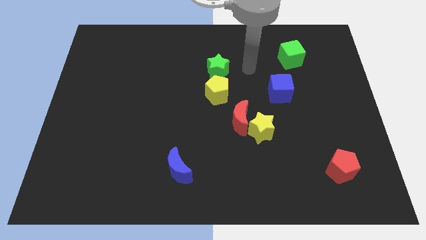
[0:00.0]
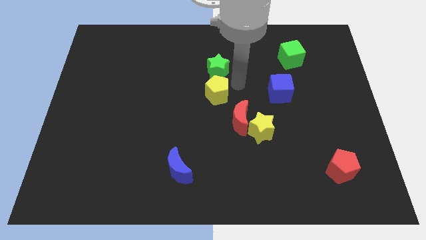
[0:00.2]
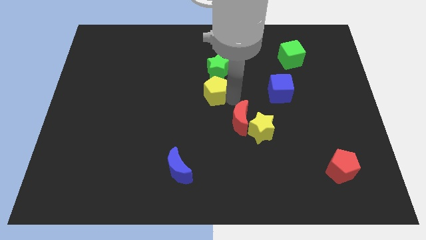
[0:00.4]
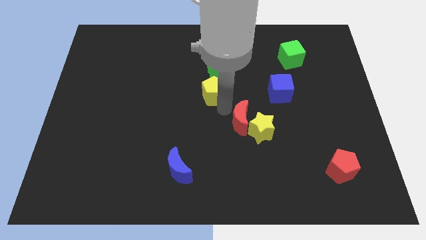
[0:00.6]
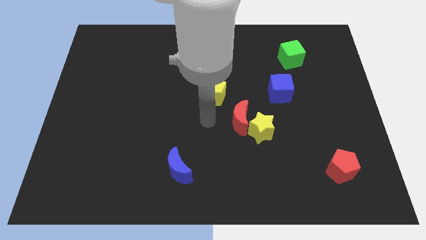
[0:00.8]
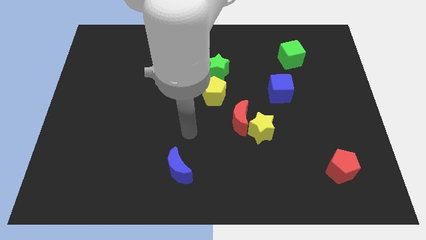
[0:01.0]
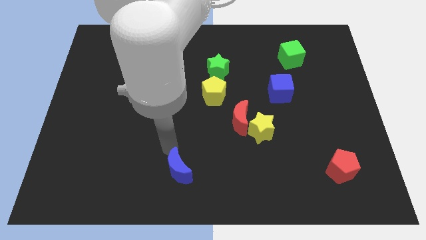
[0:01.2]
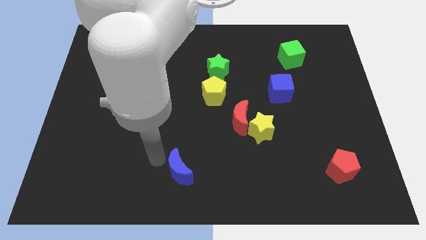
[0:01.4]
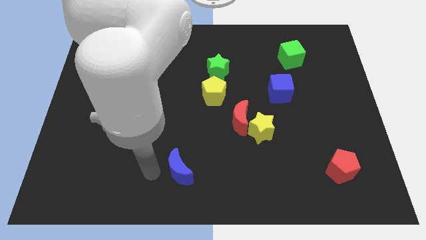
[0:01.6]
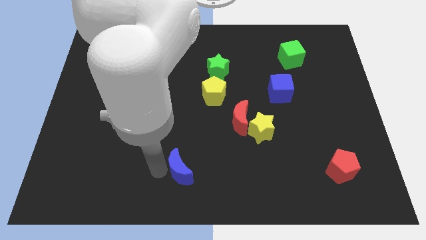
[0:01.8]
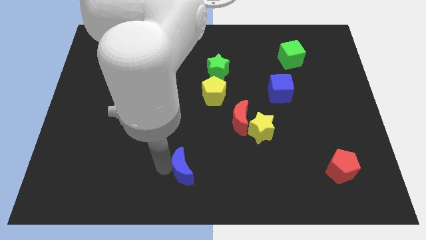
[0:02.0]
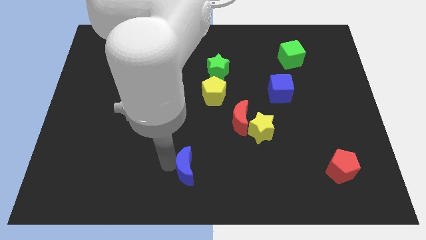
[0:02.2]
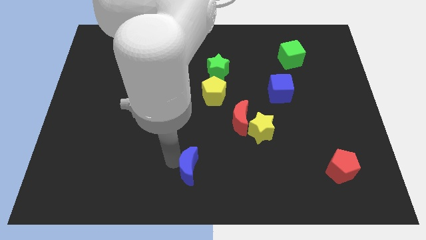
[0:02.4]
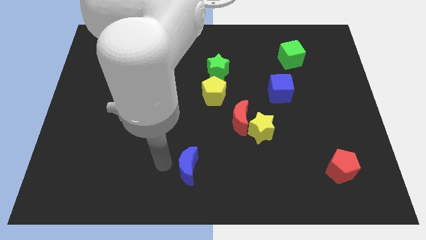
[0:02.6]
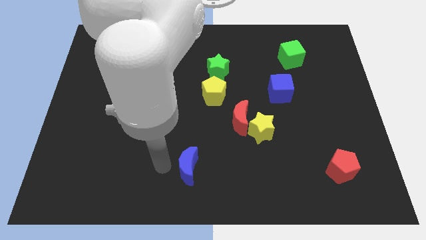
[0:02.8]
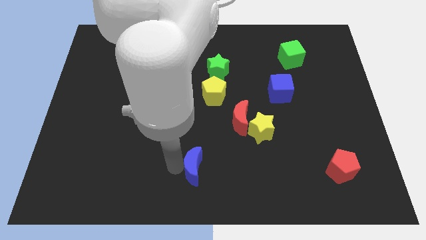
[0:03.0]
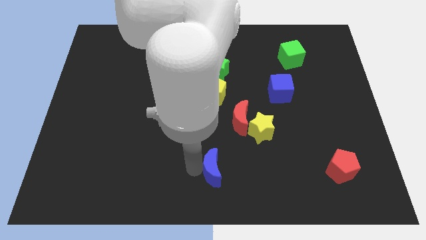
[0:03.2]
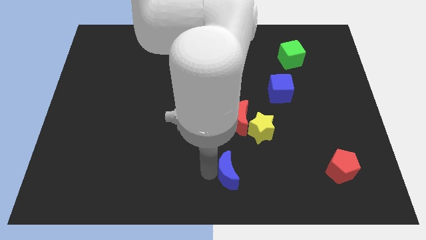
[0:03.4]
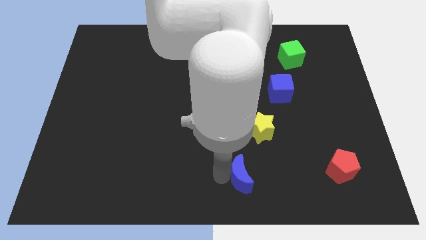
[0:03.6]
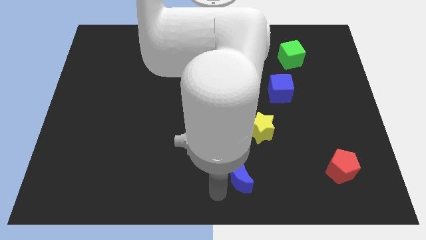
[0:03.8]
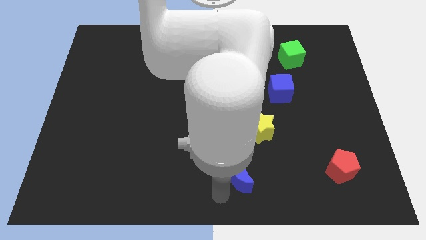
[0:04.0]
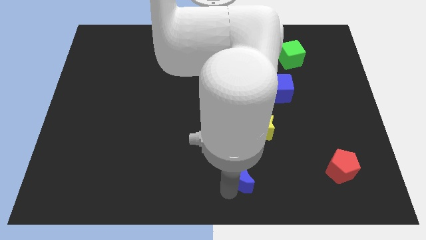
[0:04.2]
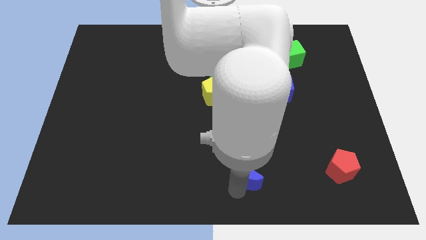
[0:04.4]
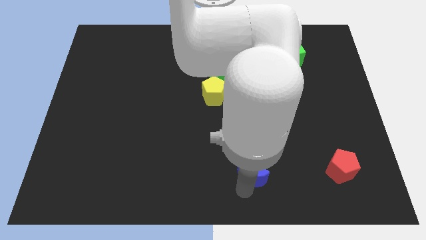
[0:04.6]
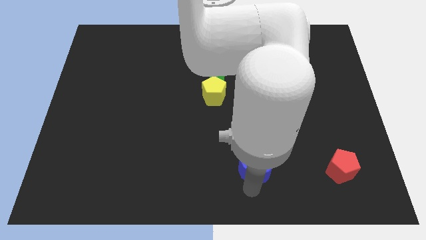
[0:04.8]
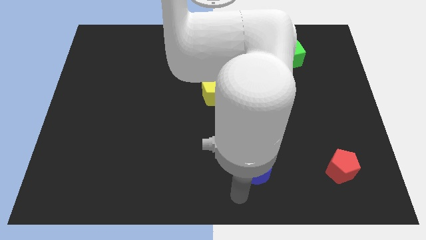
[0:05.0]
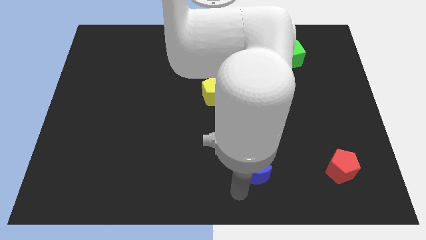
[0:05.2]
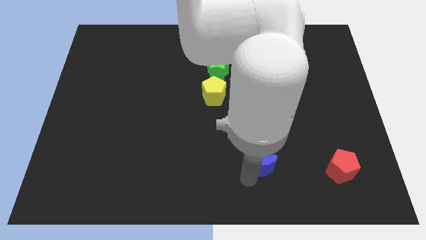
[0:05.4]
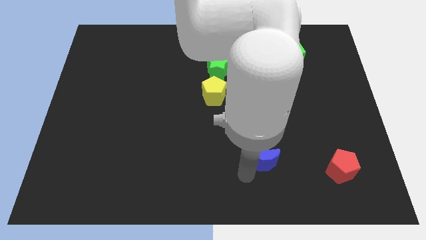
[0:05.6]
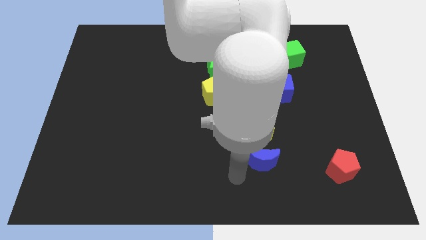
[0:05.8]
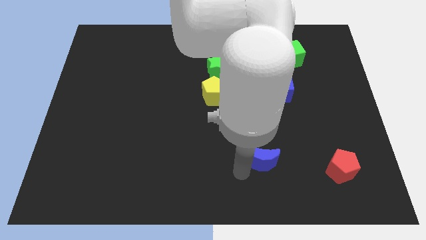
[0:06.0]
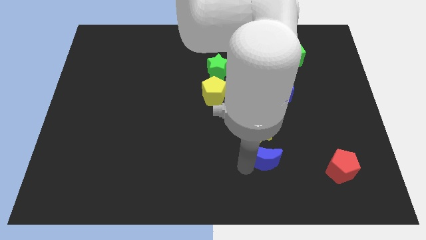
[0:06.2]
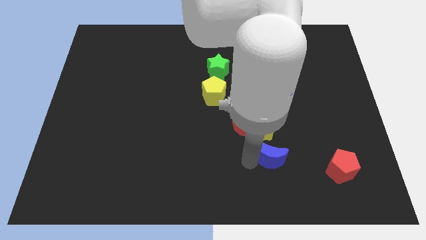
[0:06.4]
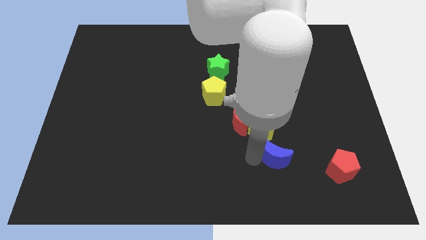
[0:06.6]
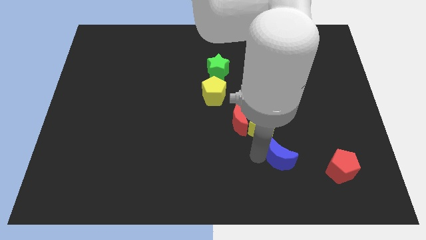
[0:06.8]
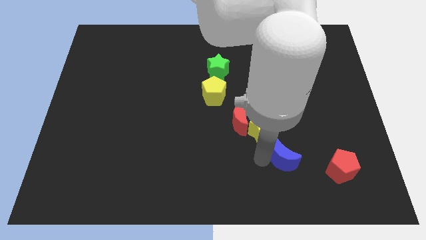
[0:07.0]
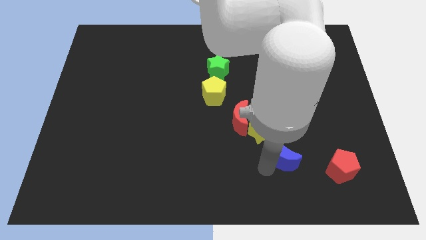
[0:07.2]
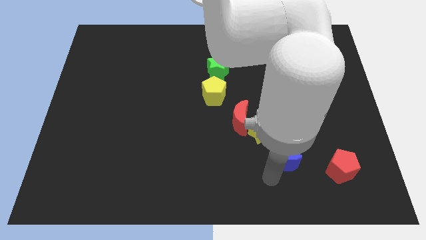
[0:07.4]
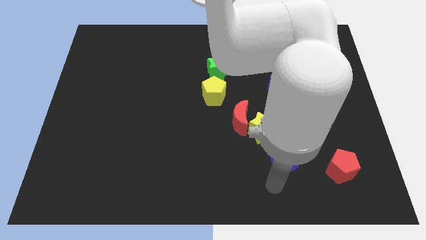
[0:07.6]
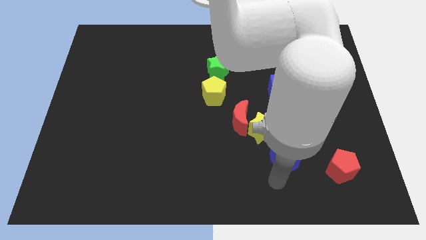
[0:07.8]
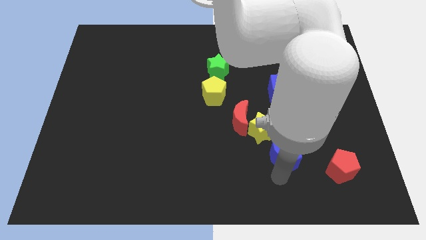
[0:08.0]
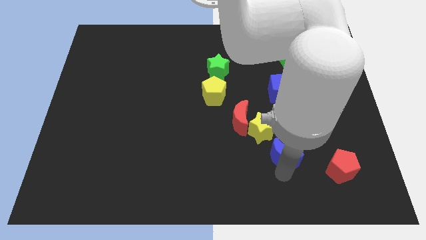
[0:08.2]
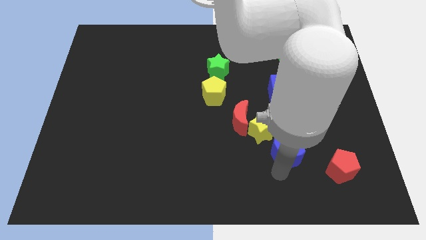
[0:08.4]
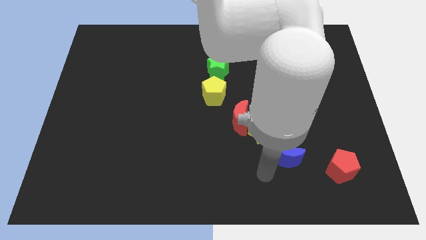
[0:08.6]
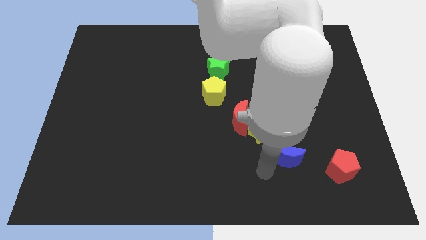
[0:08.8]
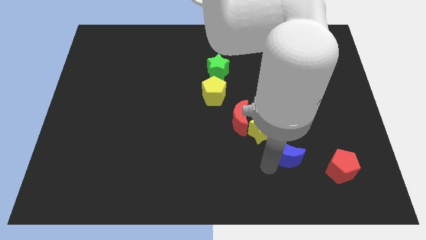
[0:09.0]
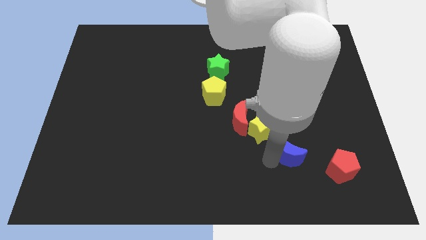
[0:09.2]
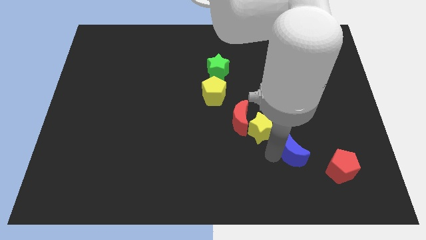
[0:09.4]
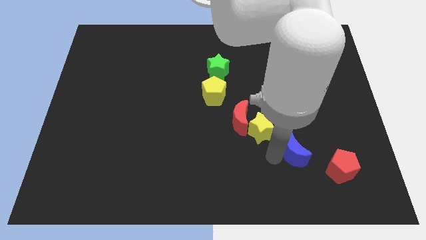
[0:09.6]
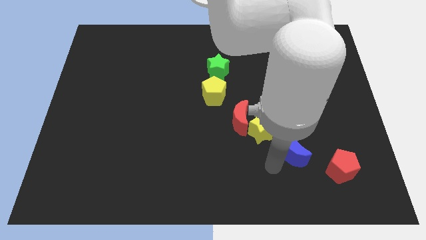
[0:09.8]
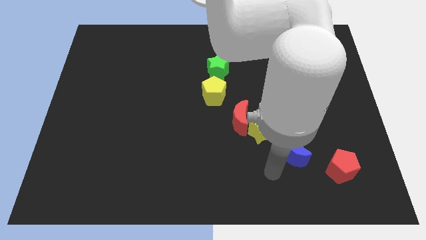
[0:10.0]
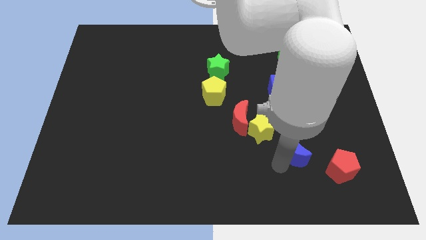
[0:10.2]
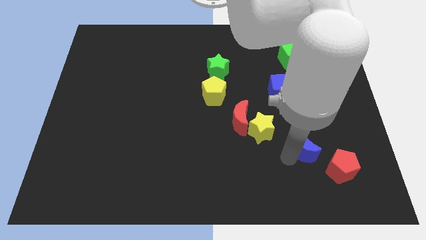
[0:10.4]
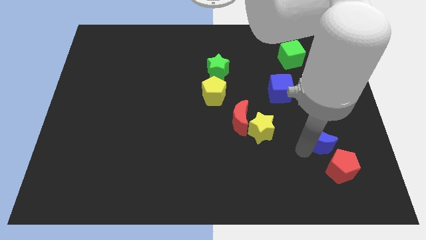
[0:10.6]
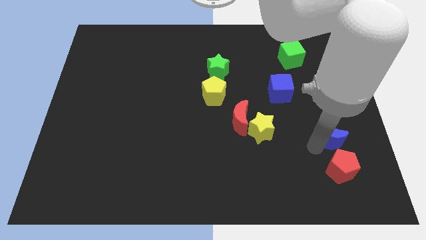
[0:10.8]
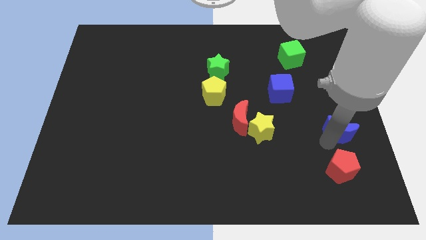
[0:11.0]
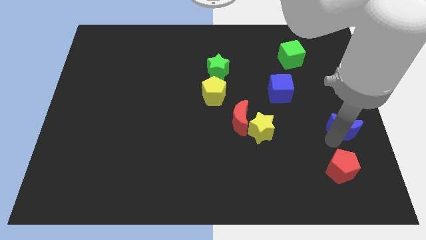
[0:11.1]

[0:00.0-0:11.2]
push the blue moon to the center right

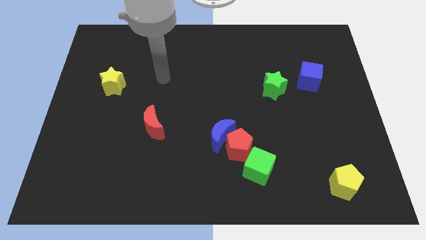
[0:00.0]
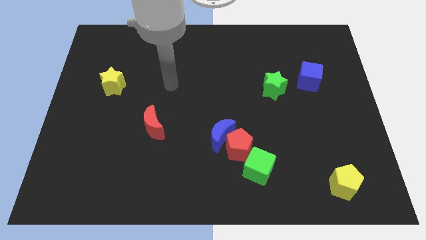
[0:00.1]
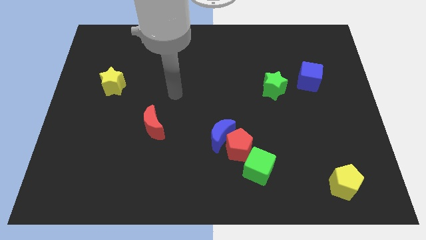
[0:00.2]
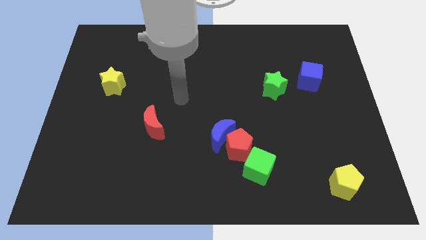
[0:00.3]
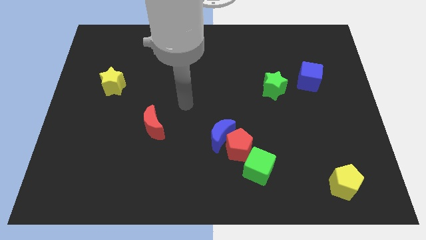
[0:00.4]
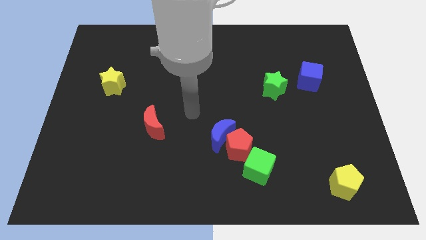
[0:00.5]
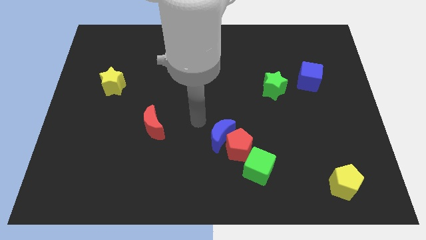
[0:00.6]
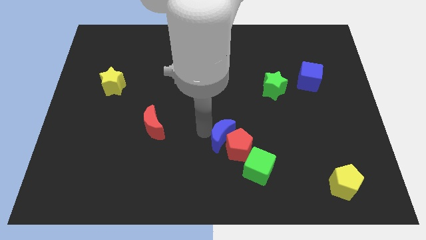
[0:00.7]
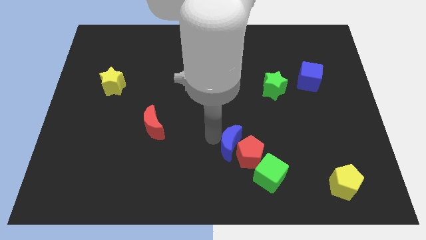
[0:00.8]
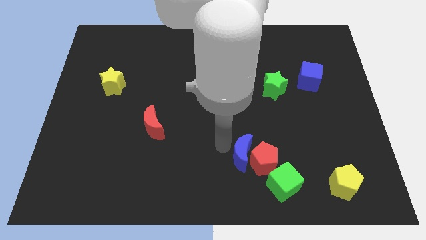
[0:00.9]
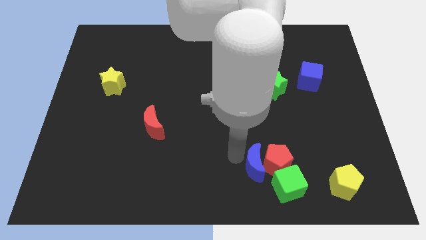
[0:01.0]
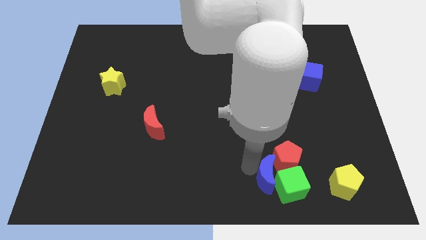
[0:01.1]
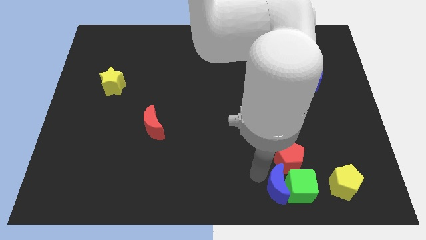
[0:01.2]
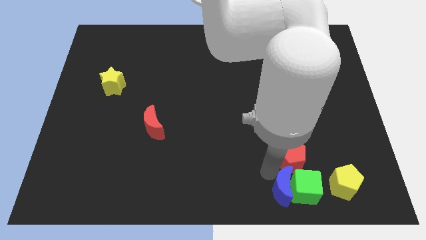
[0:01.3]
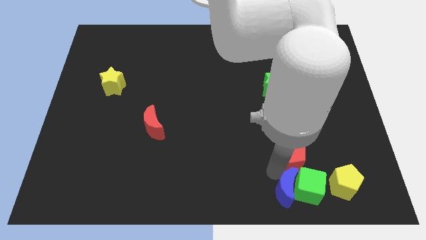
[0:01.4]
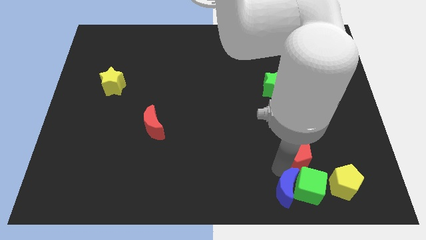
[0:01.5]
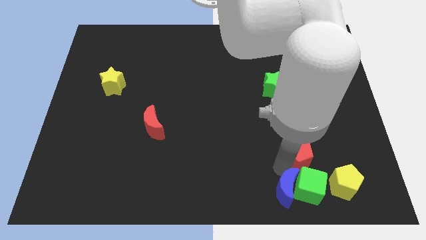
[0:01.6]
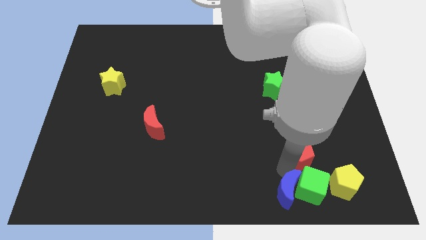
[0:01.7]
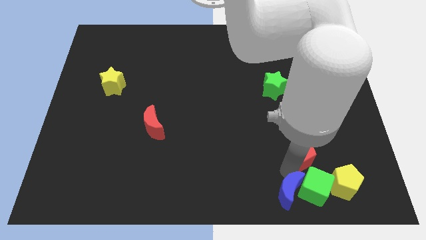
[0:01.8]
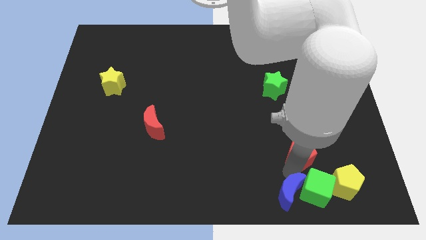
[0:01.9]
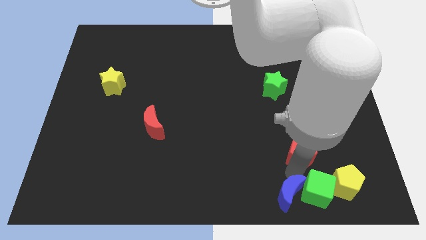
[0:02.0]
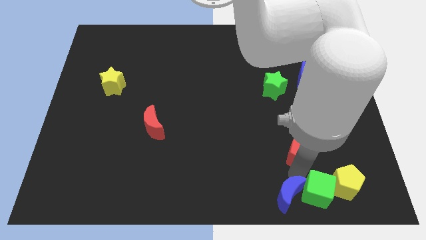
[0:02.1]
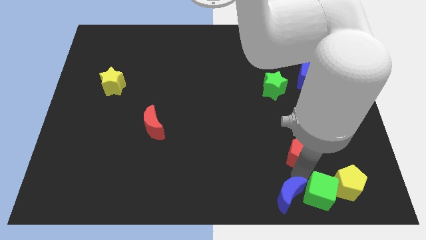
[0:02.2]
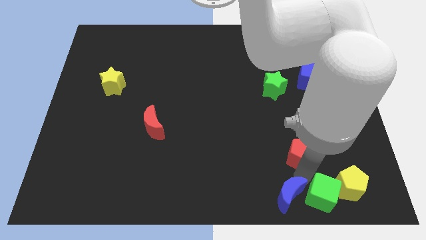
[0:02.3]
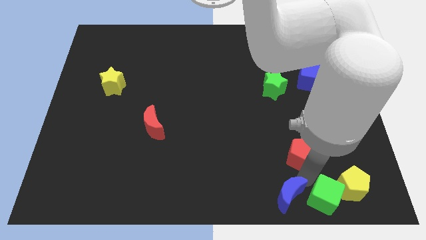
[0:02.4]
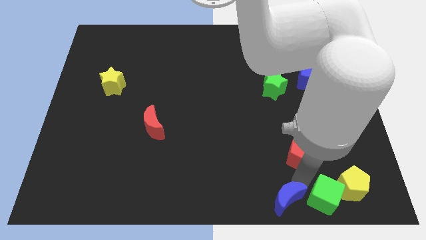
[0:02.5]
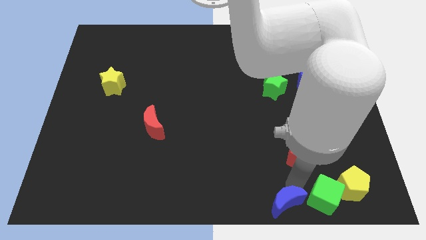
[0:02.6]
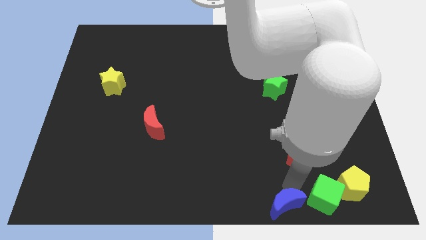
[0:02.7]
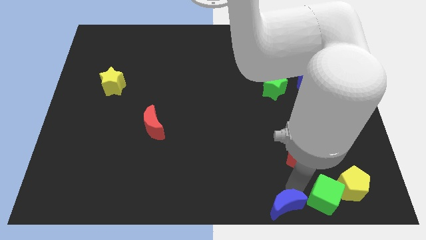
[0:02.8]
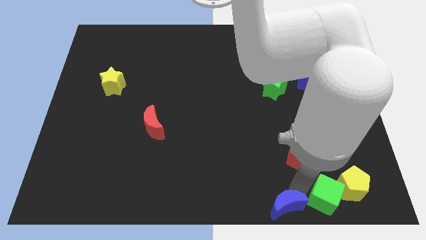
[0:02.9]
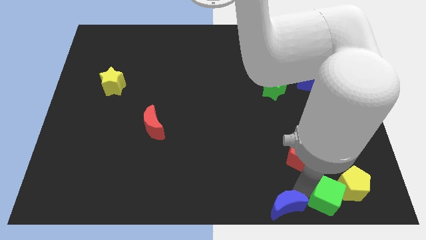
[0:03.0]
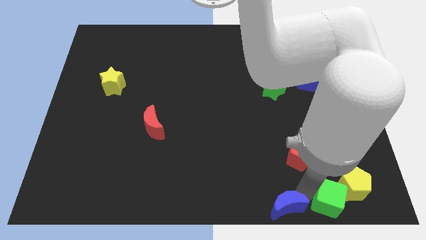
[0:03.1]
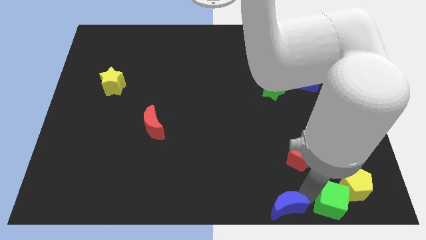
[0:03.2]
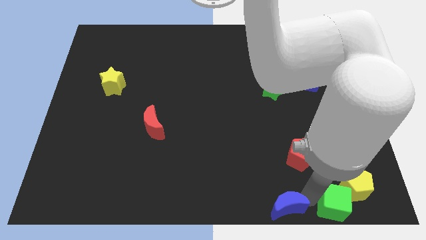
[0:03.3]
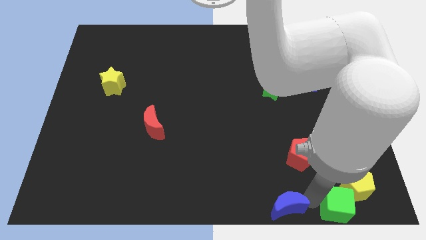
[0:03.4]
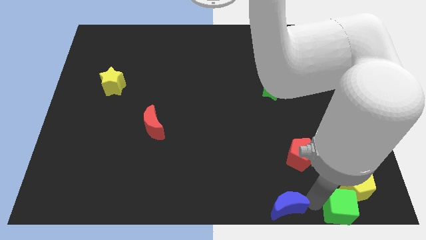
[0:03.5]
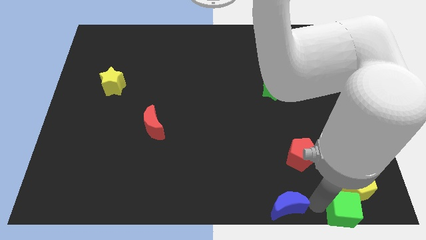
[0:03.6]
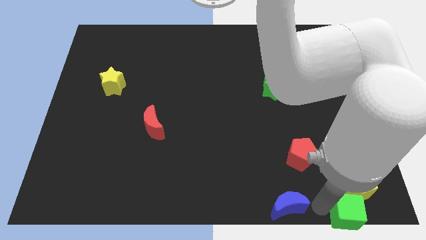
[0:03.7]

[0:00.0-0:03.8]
move the green cube to the lower right corner
